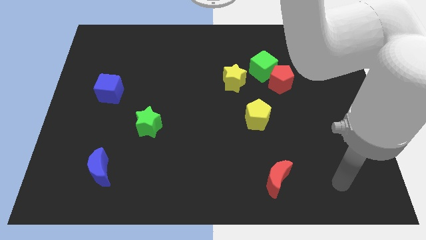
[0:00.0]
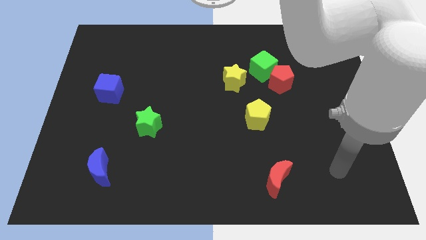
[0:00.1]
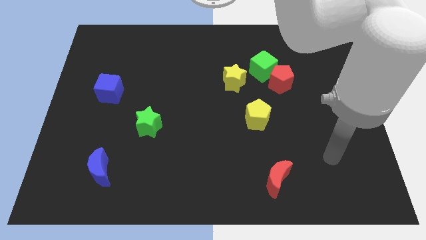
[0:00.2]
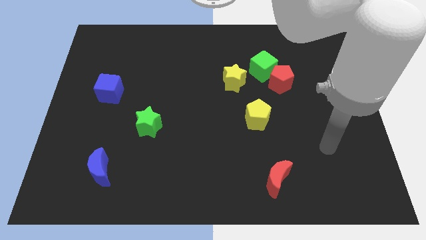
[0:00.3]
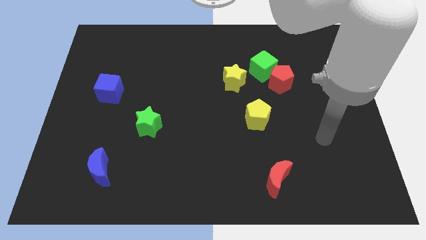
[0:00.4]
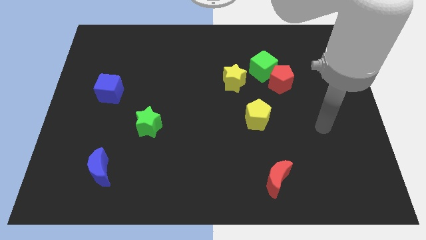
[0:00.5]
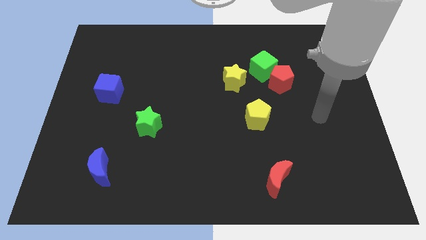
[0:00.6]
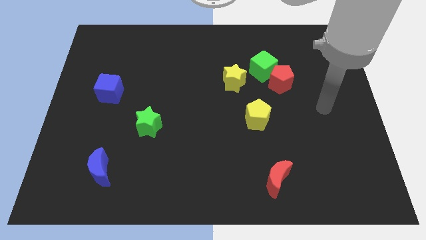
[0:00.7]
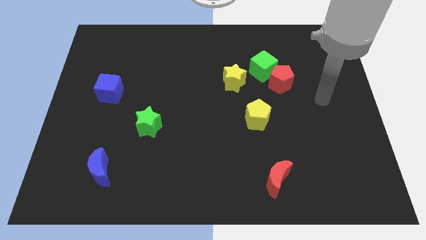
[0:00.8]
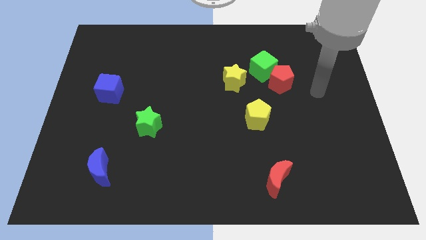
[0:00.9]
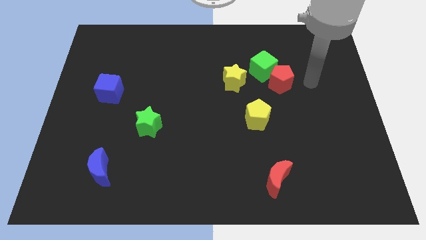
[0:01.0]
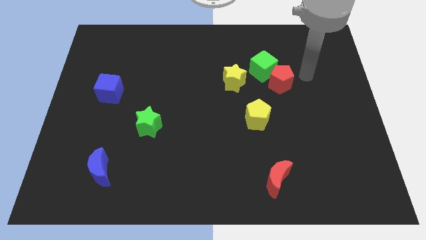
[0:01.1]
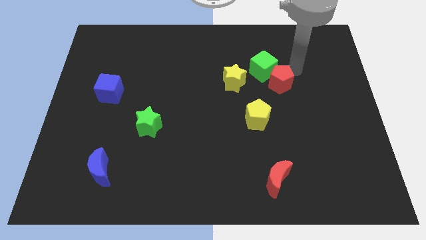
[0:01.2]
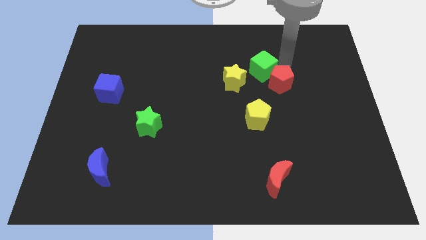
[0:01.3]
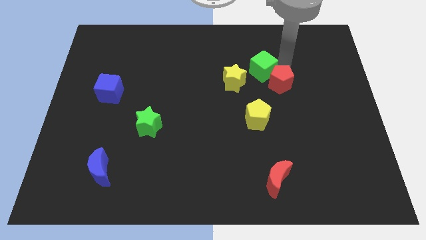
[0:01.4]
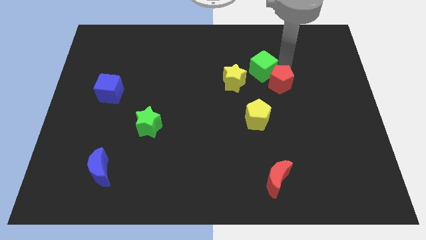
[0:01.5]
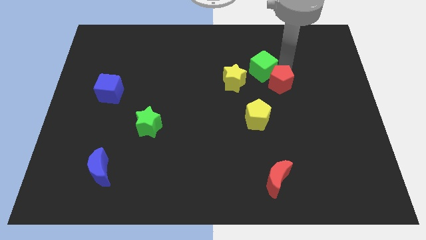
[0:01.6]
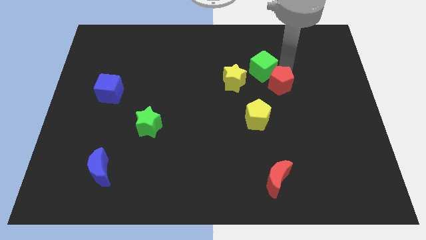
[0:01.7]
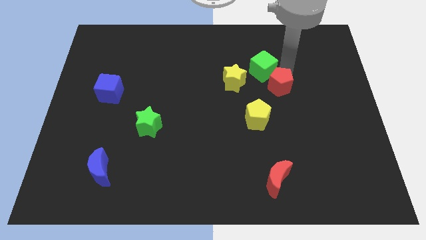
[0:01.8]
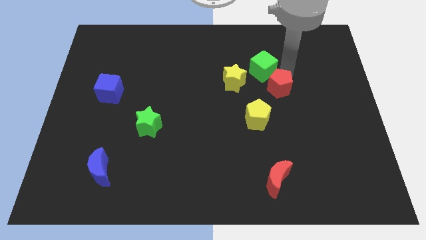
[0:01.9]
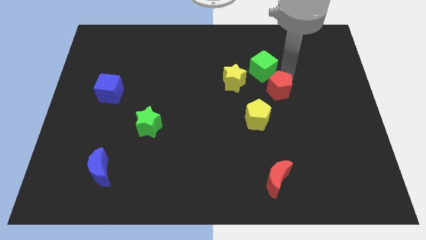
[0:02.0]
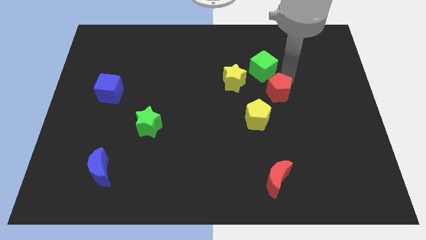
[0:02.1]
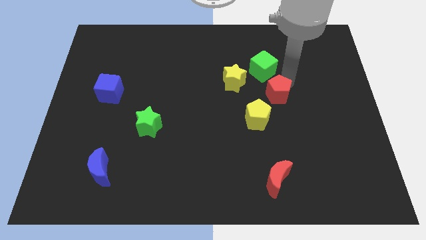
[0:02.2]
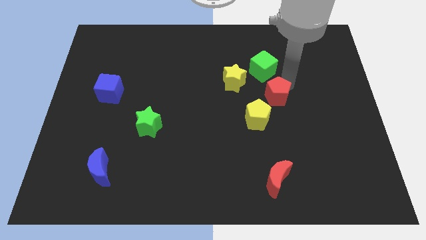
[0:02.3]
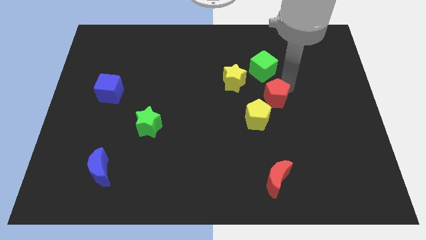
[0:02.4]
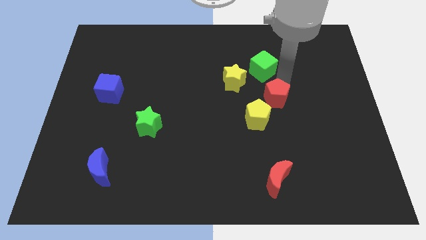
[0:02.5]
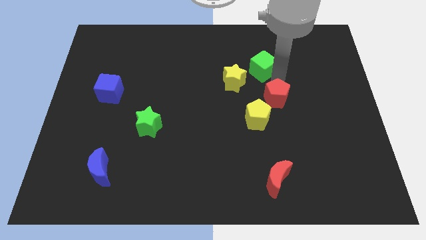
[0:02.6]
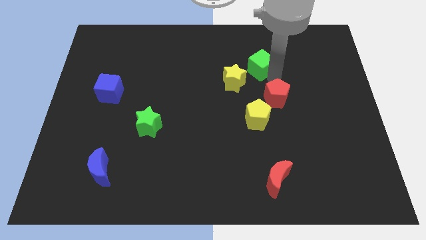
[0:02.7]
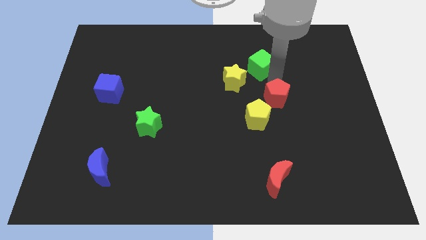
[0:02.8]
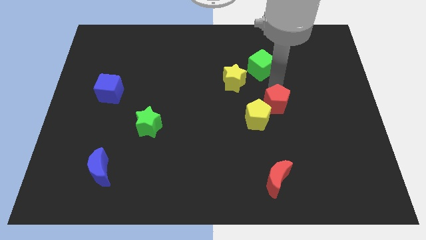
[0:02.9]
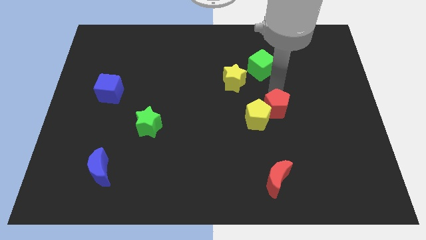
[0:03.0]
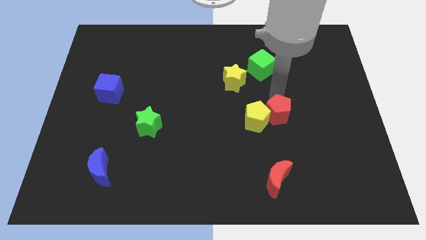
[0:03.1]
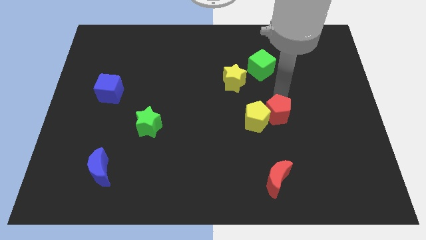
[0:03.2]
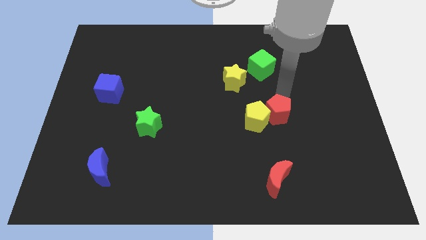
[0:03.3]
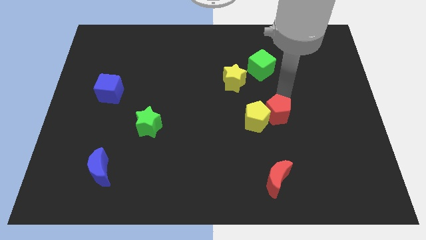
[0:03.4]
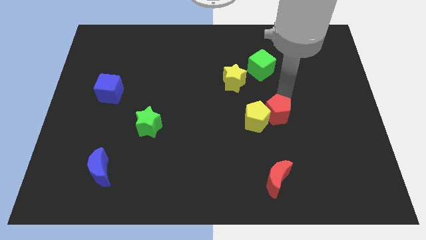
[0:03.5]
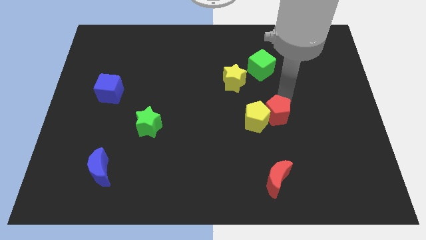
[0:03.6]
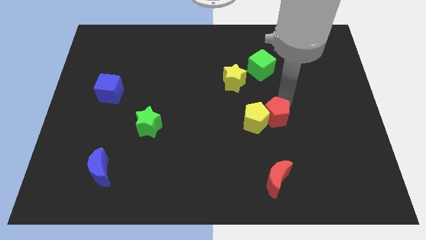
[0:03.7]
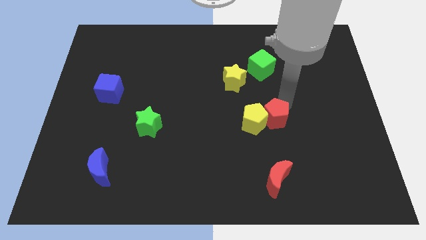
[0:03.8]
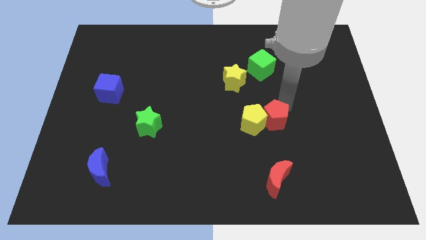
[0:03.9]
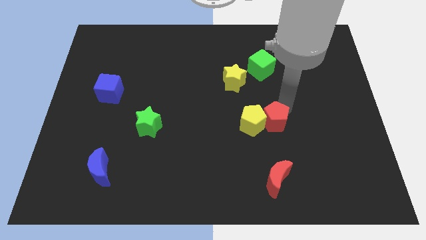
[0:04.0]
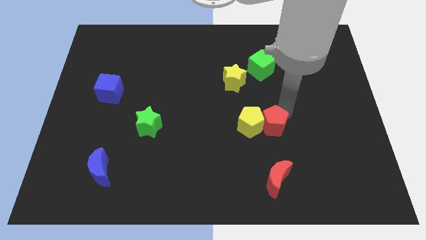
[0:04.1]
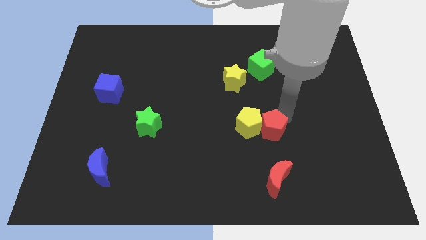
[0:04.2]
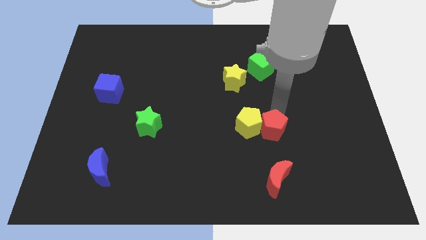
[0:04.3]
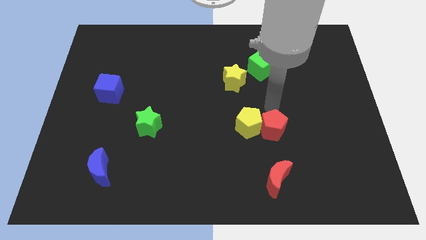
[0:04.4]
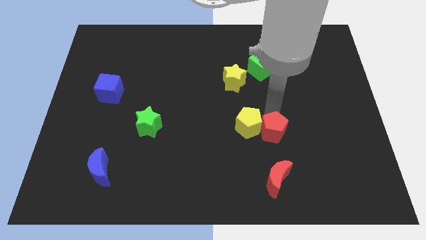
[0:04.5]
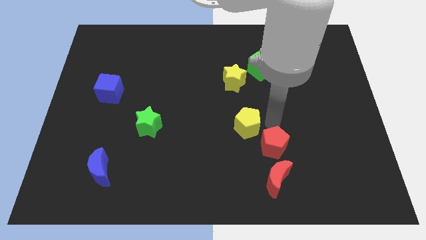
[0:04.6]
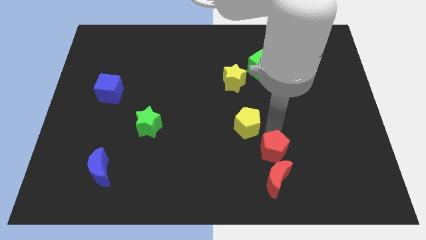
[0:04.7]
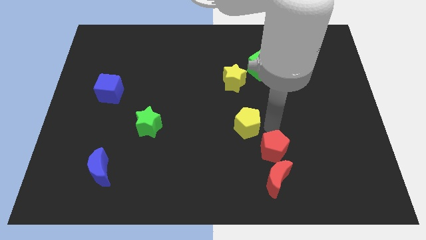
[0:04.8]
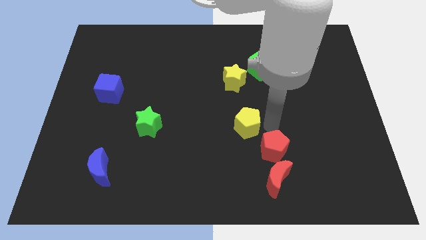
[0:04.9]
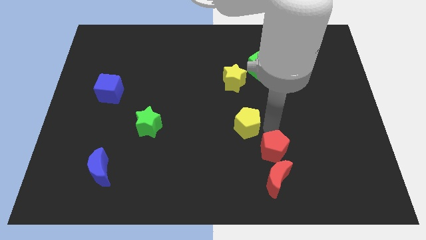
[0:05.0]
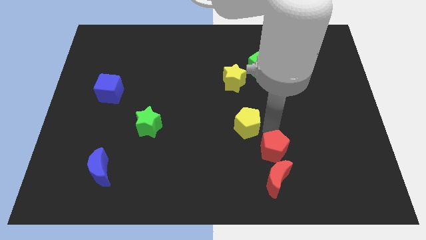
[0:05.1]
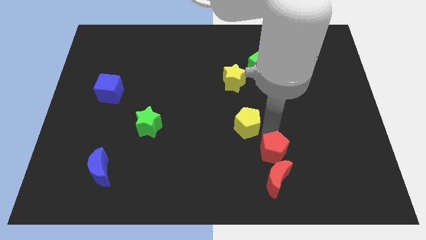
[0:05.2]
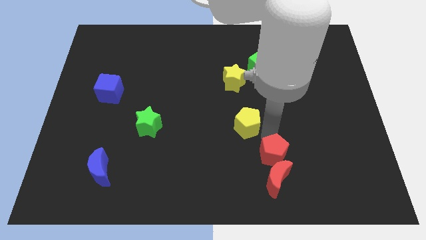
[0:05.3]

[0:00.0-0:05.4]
slide the red pentagon towards the red moon

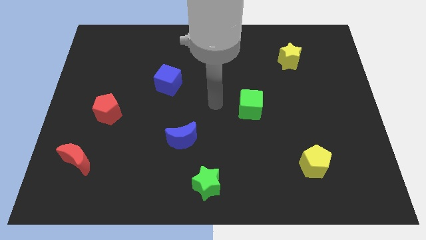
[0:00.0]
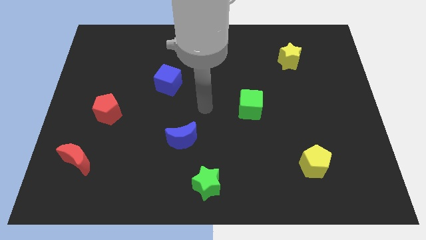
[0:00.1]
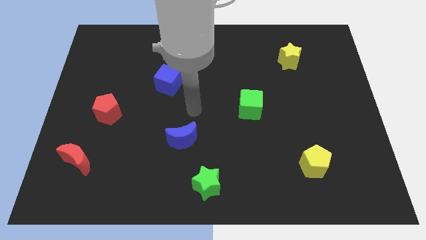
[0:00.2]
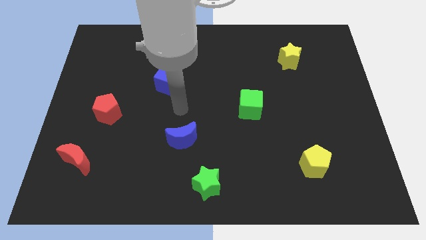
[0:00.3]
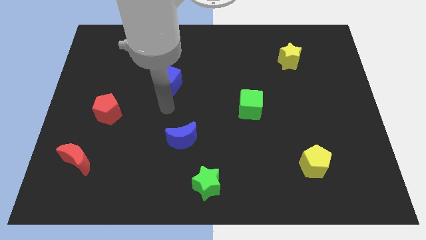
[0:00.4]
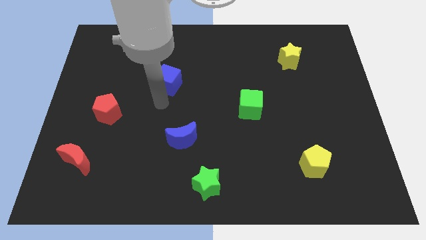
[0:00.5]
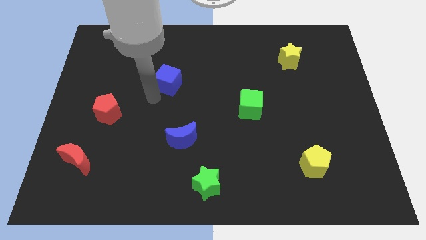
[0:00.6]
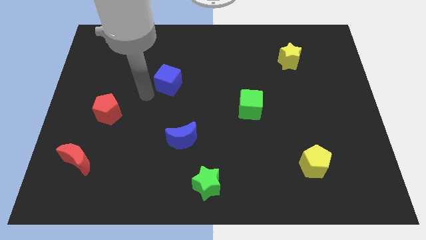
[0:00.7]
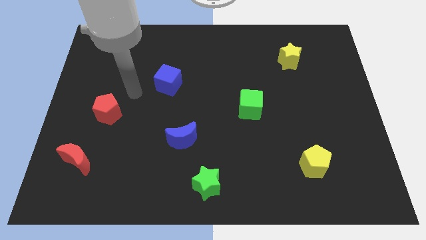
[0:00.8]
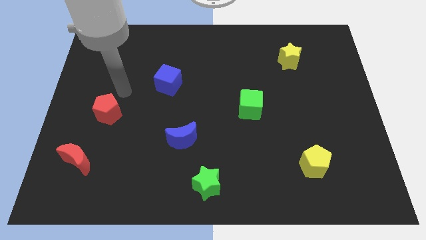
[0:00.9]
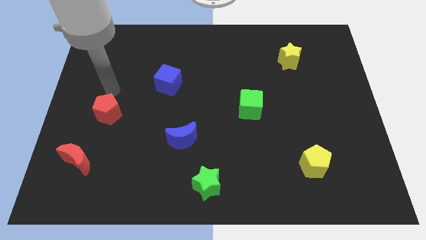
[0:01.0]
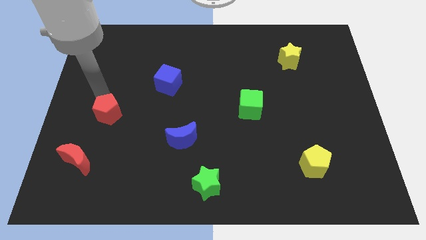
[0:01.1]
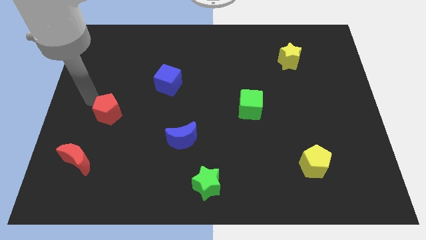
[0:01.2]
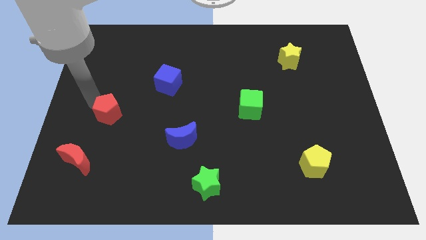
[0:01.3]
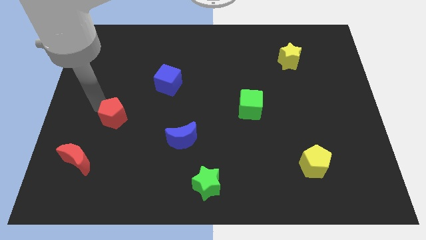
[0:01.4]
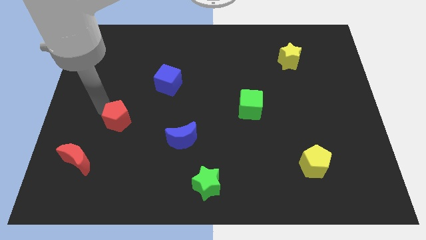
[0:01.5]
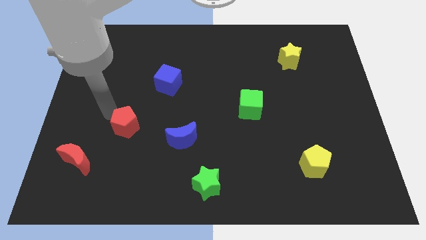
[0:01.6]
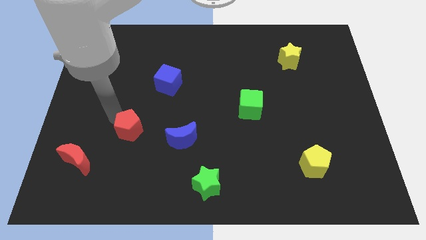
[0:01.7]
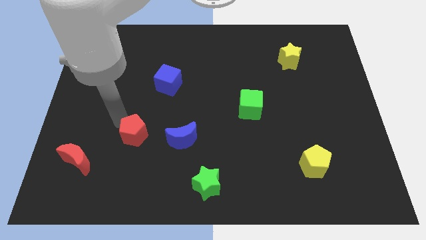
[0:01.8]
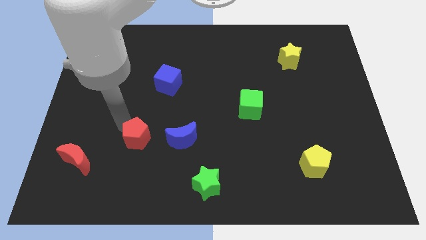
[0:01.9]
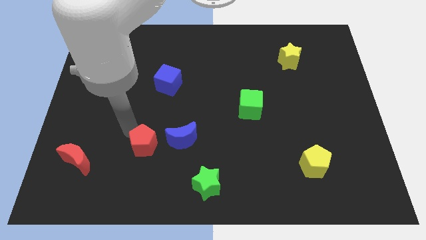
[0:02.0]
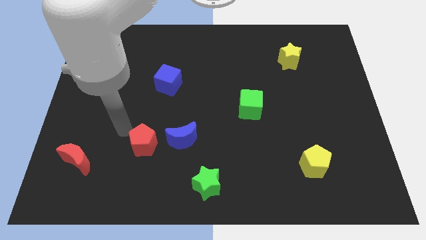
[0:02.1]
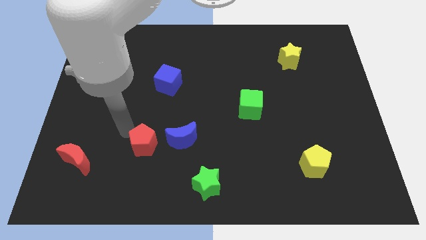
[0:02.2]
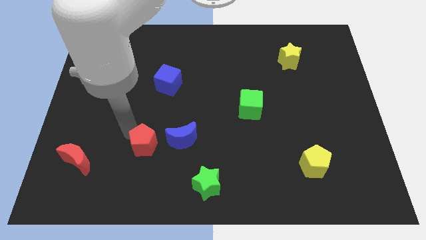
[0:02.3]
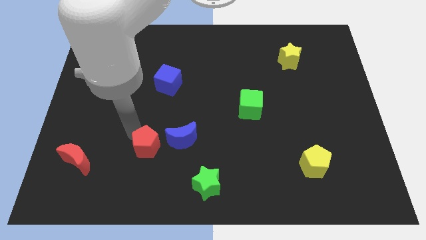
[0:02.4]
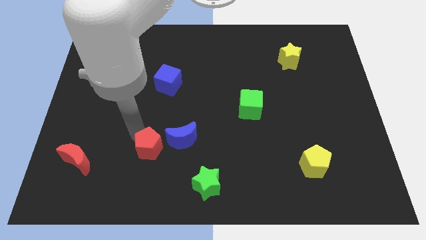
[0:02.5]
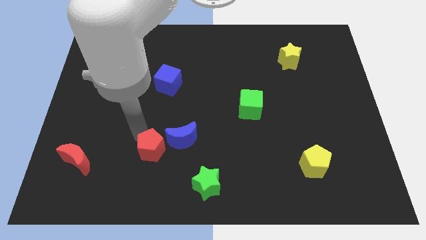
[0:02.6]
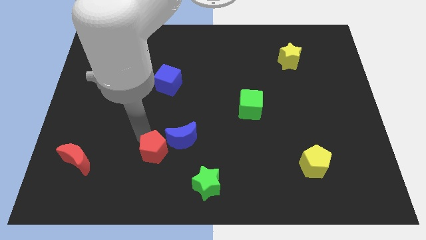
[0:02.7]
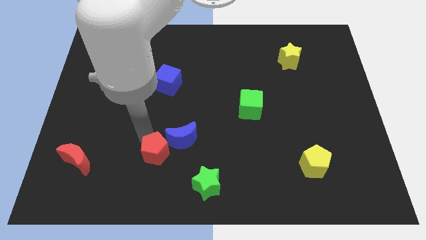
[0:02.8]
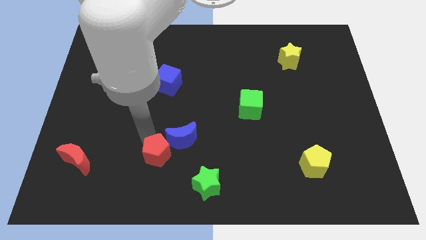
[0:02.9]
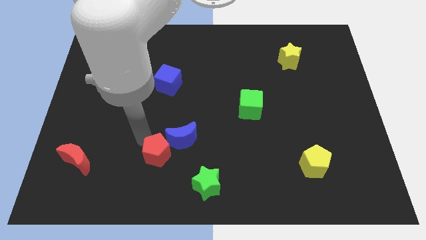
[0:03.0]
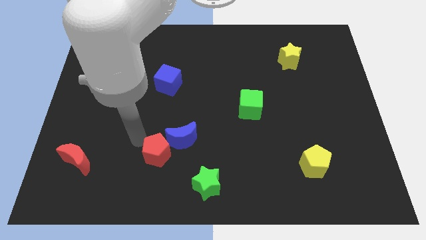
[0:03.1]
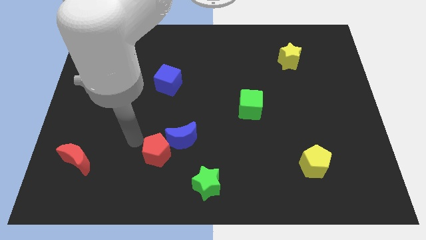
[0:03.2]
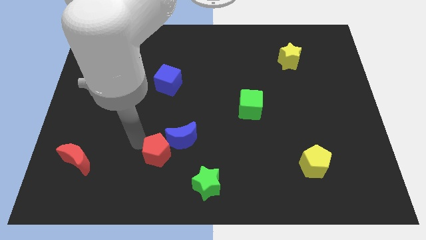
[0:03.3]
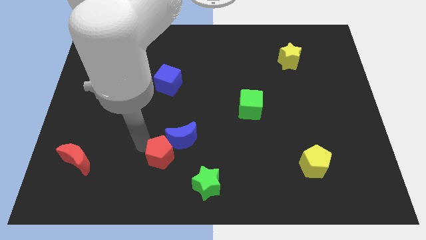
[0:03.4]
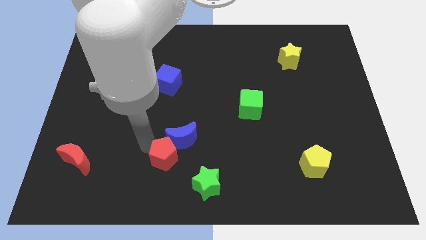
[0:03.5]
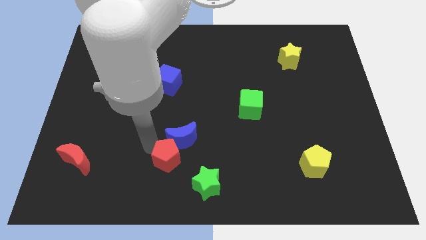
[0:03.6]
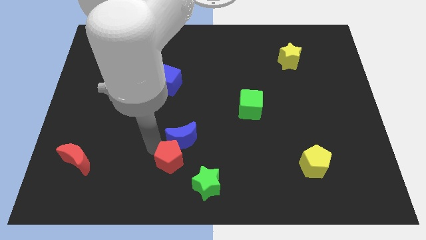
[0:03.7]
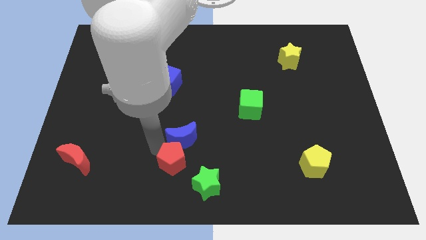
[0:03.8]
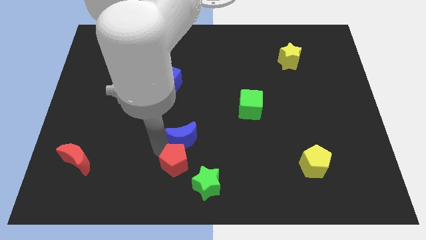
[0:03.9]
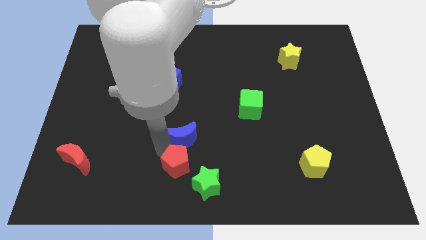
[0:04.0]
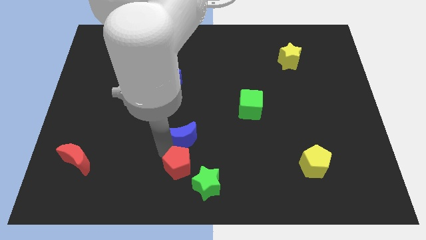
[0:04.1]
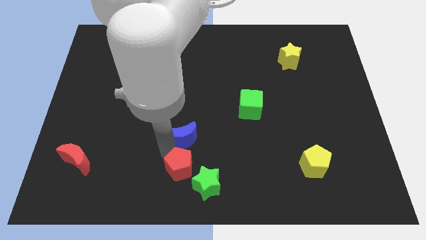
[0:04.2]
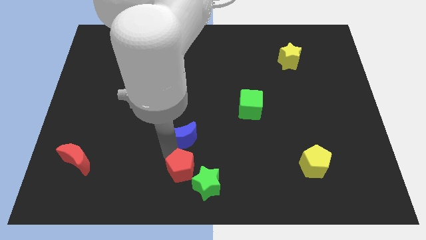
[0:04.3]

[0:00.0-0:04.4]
move the red pentagon to the green star
